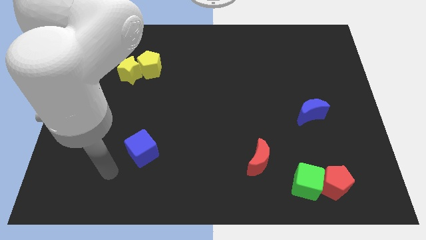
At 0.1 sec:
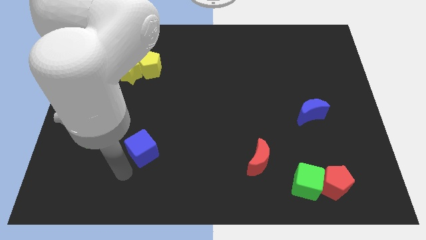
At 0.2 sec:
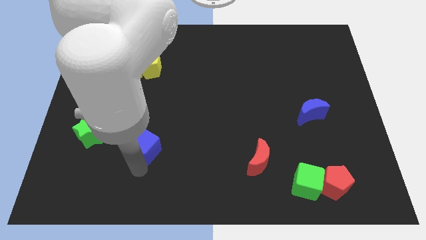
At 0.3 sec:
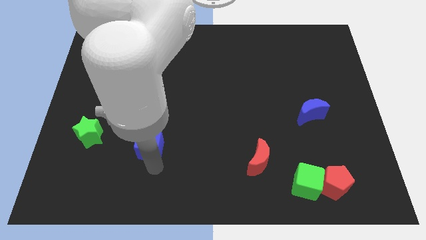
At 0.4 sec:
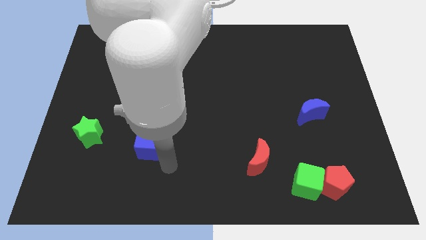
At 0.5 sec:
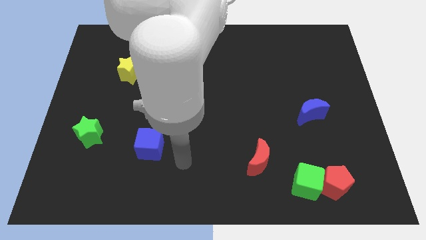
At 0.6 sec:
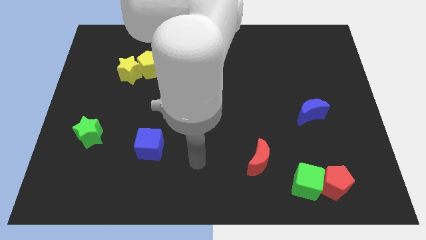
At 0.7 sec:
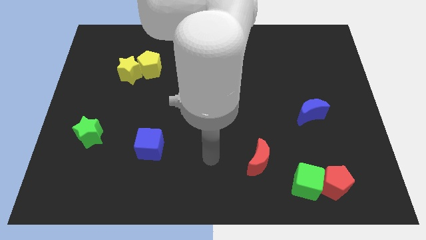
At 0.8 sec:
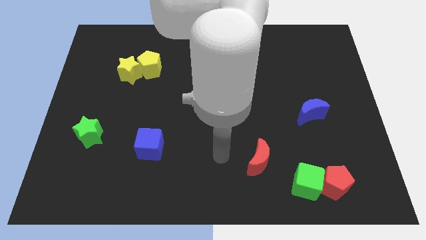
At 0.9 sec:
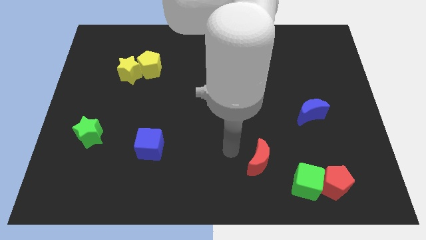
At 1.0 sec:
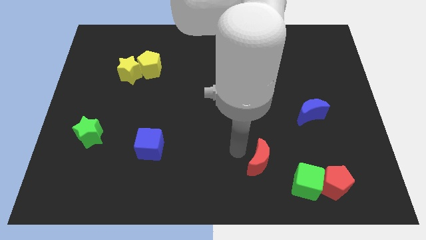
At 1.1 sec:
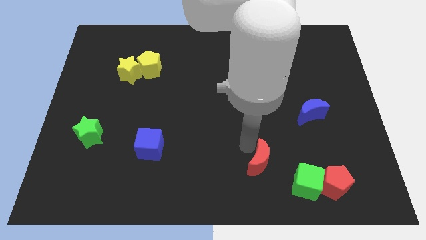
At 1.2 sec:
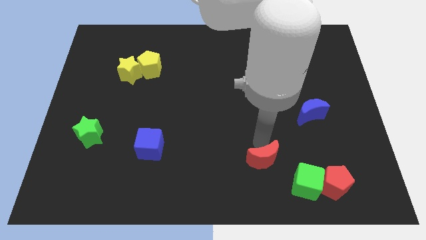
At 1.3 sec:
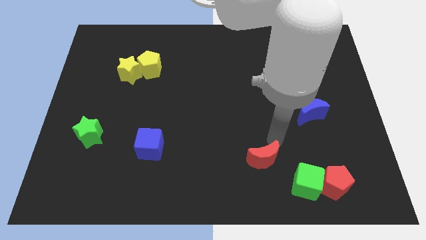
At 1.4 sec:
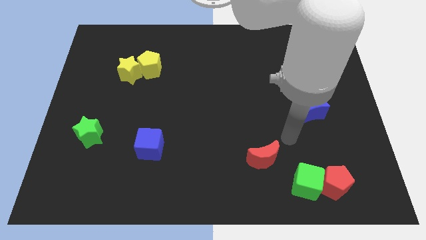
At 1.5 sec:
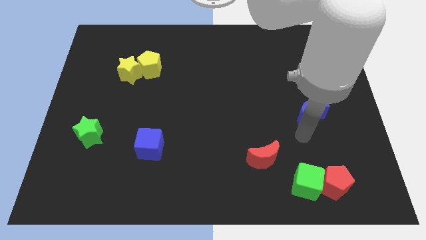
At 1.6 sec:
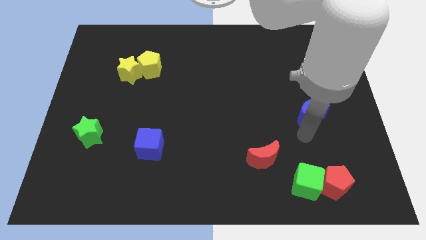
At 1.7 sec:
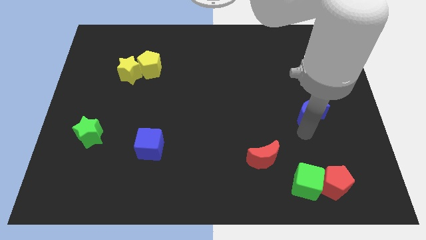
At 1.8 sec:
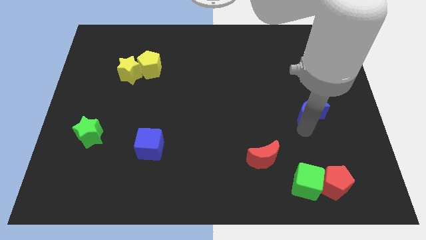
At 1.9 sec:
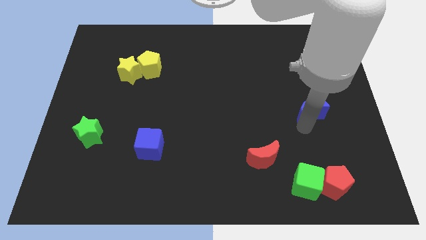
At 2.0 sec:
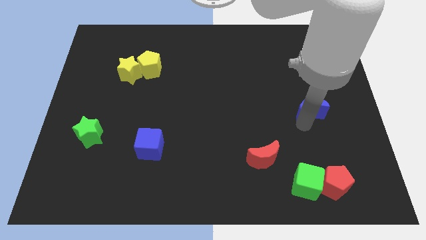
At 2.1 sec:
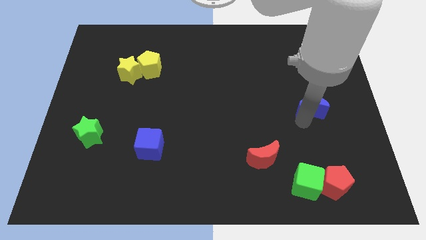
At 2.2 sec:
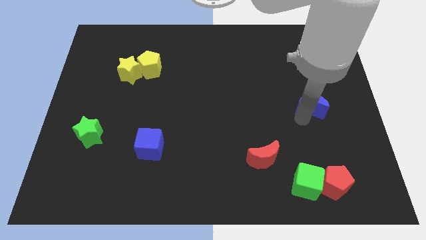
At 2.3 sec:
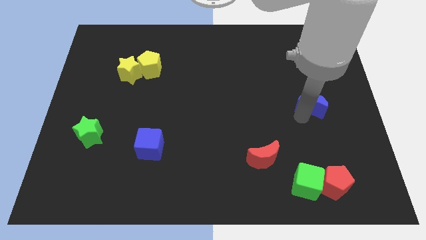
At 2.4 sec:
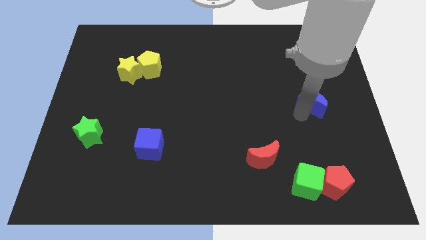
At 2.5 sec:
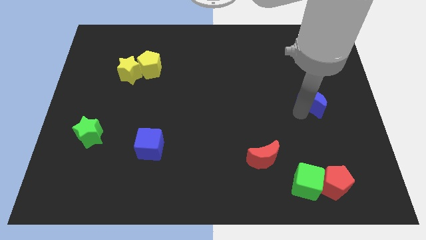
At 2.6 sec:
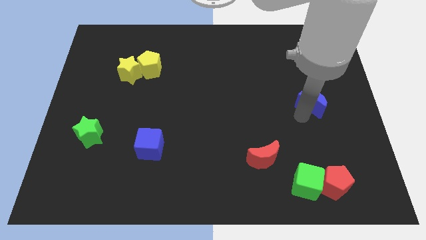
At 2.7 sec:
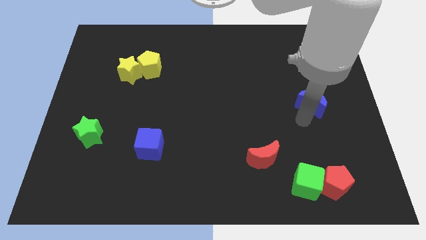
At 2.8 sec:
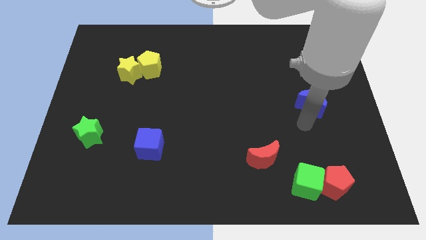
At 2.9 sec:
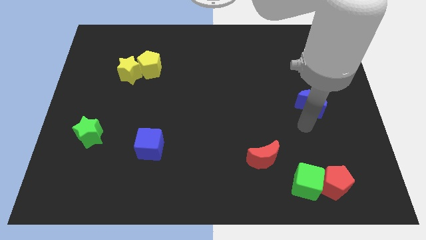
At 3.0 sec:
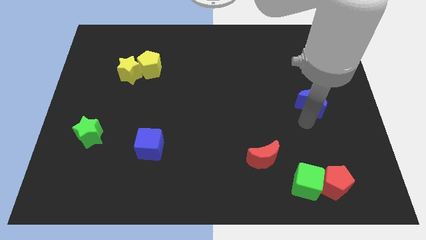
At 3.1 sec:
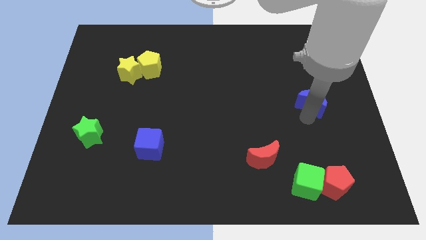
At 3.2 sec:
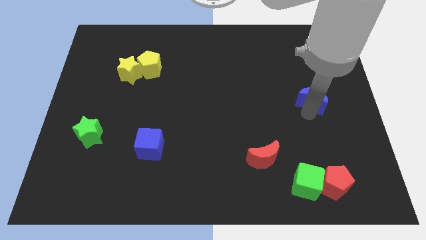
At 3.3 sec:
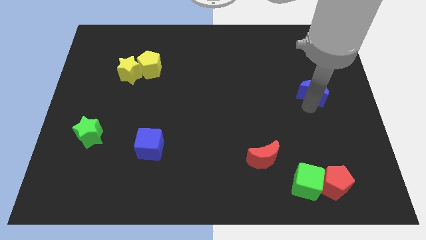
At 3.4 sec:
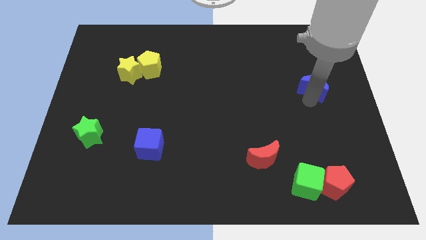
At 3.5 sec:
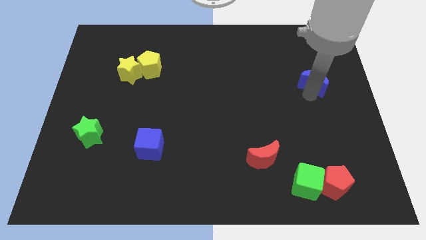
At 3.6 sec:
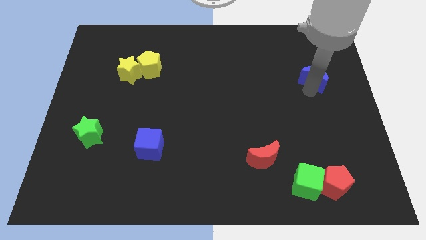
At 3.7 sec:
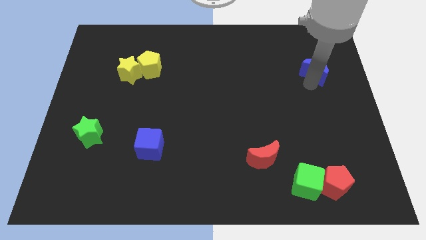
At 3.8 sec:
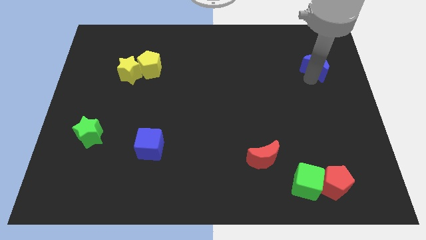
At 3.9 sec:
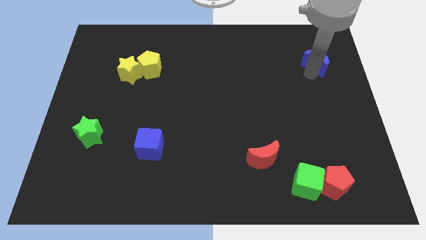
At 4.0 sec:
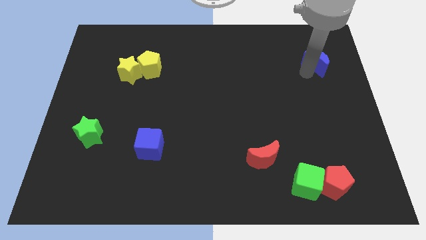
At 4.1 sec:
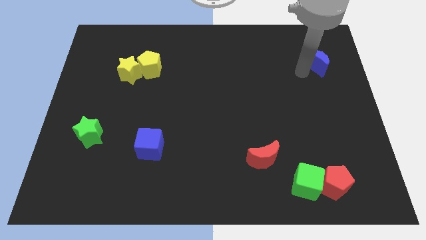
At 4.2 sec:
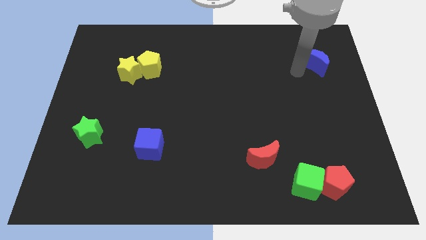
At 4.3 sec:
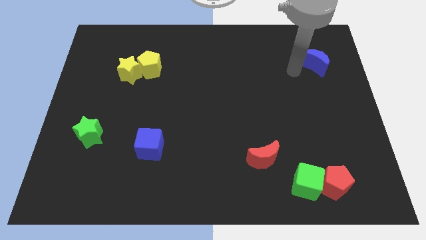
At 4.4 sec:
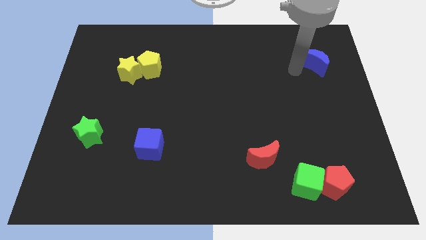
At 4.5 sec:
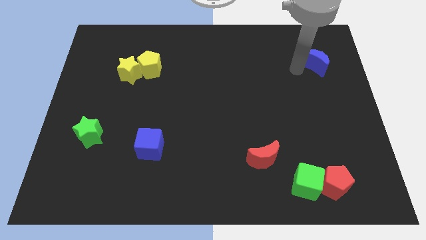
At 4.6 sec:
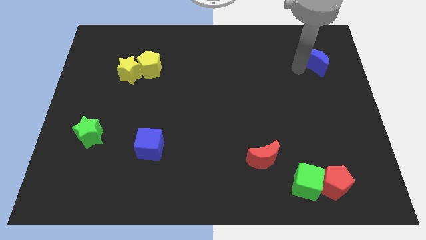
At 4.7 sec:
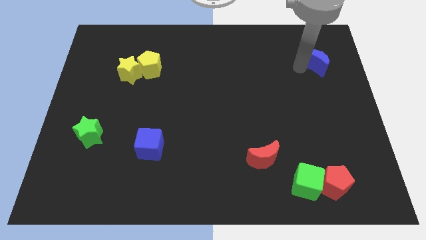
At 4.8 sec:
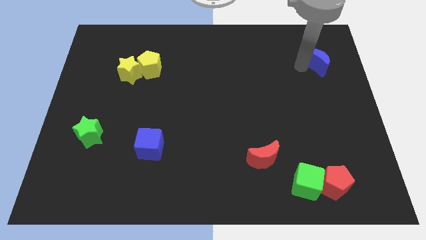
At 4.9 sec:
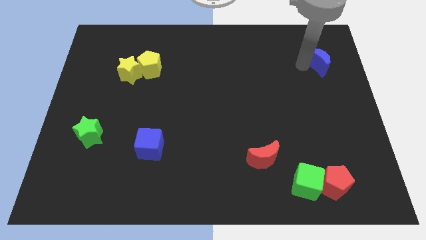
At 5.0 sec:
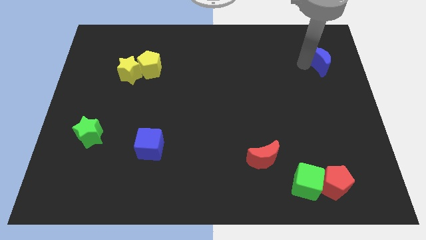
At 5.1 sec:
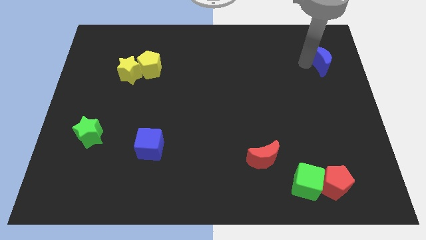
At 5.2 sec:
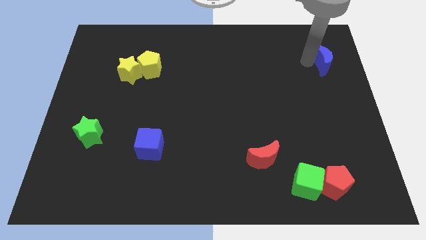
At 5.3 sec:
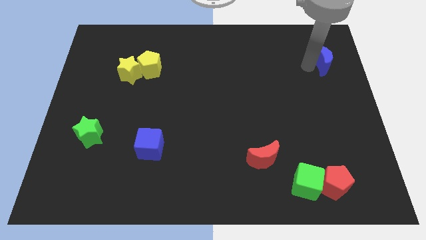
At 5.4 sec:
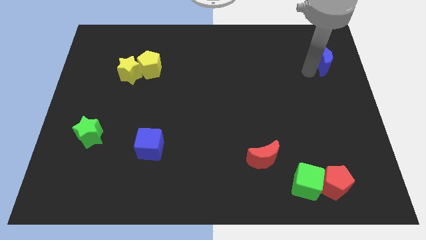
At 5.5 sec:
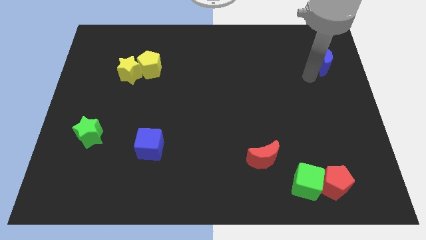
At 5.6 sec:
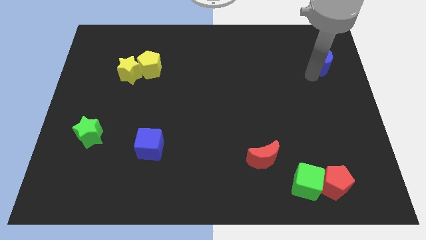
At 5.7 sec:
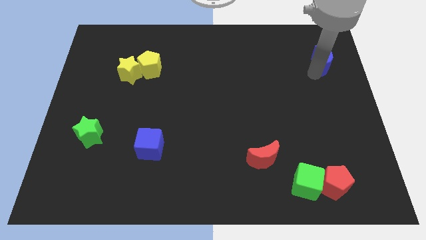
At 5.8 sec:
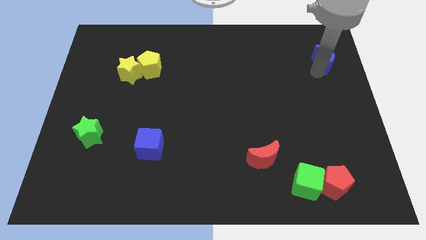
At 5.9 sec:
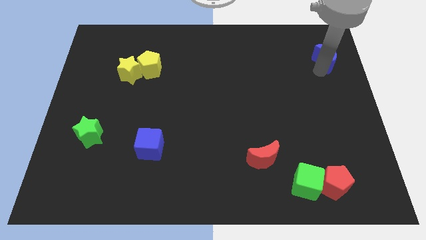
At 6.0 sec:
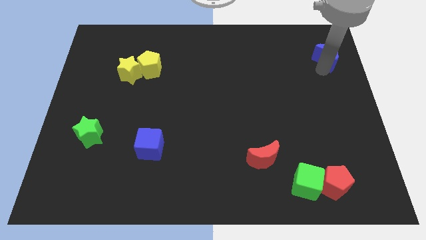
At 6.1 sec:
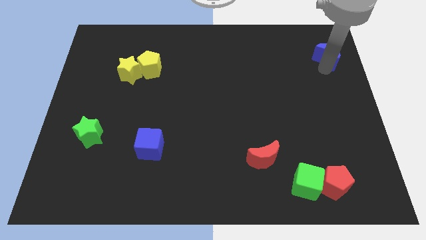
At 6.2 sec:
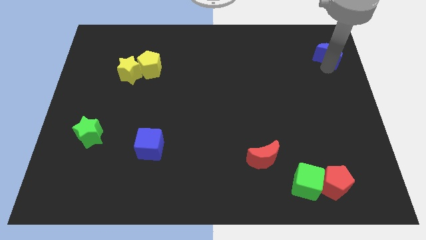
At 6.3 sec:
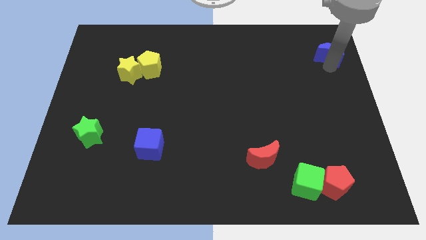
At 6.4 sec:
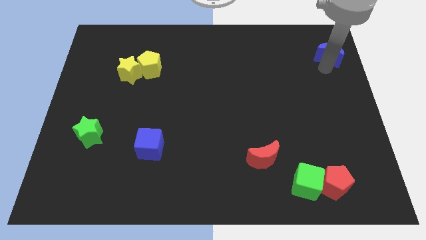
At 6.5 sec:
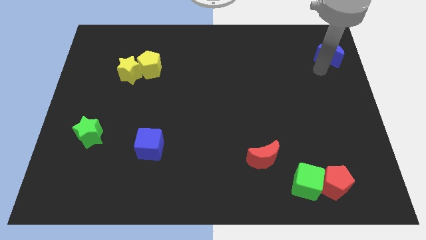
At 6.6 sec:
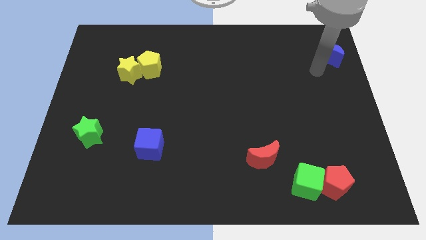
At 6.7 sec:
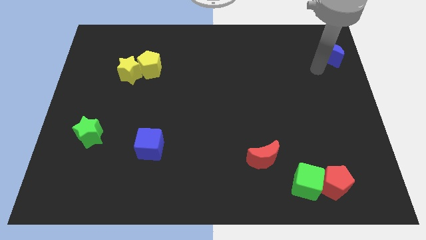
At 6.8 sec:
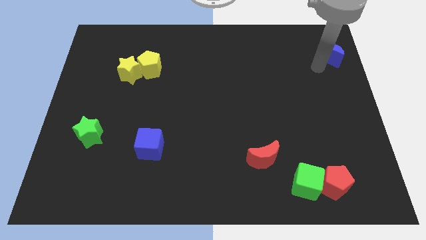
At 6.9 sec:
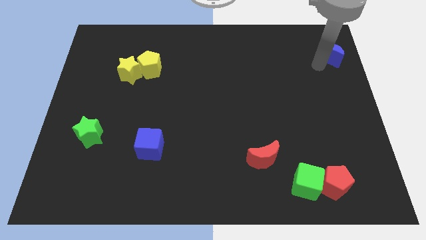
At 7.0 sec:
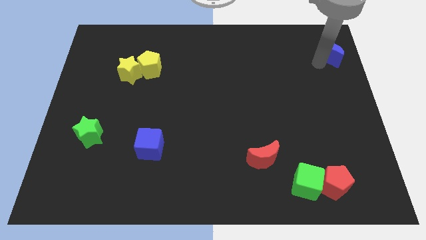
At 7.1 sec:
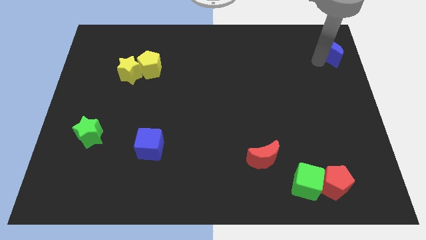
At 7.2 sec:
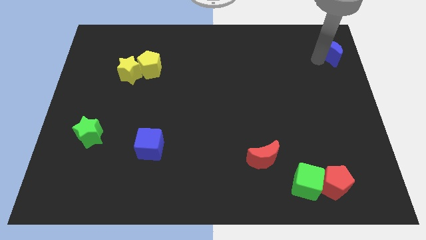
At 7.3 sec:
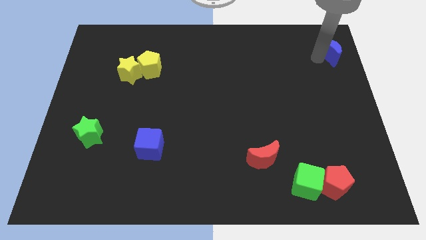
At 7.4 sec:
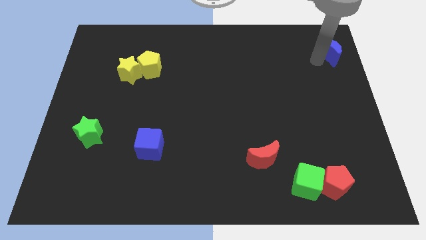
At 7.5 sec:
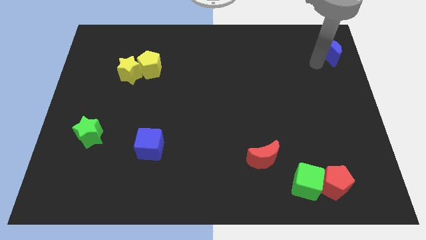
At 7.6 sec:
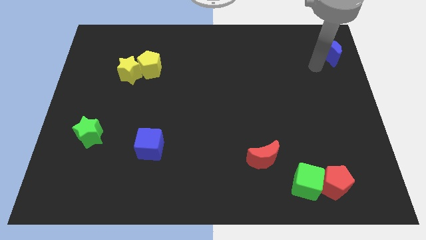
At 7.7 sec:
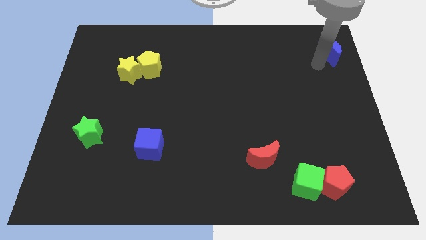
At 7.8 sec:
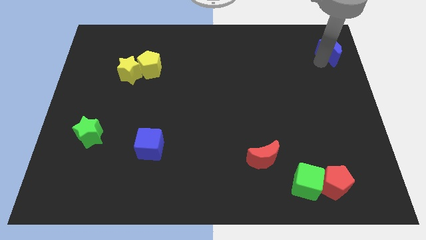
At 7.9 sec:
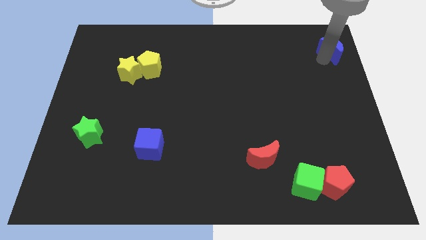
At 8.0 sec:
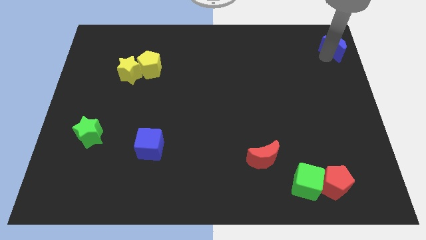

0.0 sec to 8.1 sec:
push the blue moon to the top right of the board
